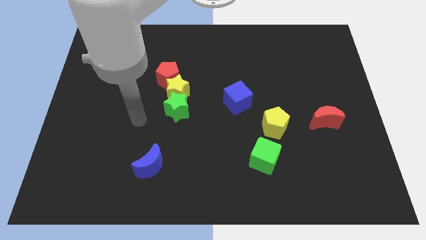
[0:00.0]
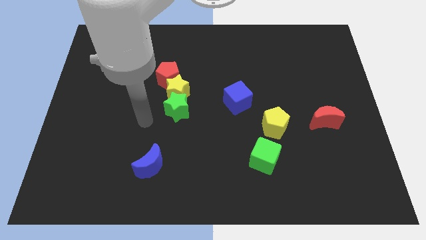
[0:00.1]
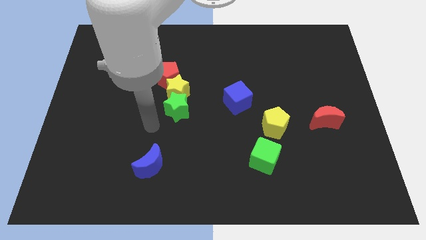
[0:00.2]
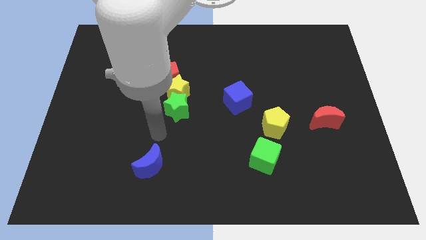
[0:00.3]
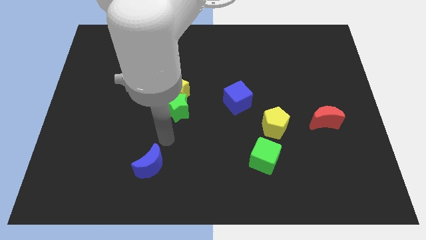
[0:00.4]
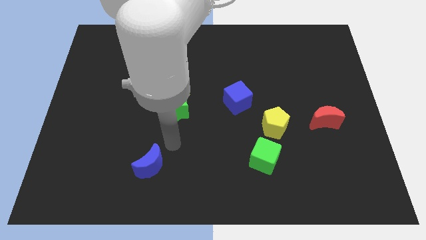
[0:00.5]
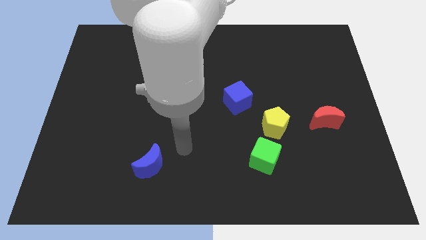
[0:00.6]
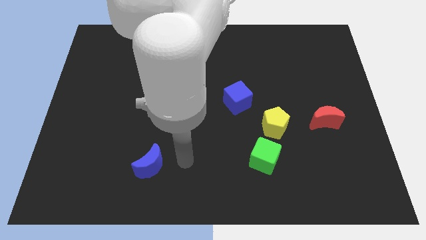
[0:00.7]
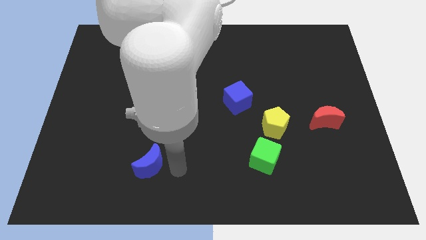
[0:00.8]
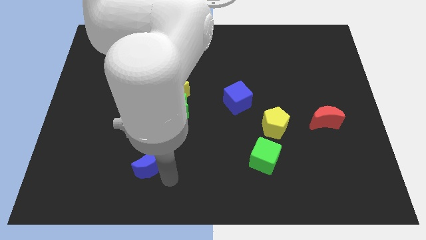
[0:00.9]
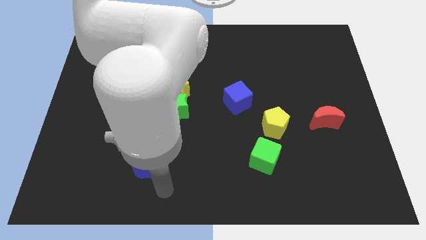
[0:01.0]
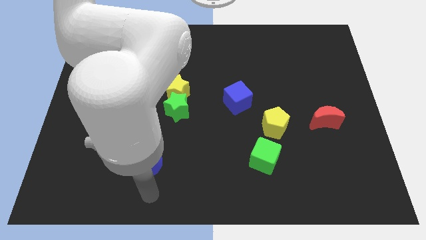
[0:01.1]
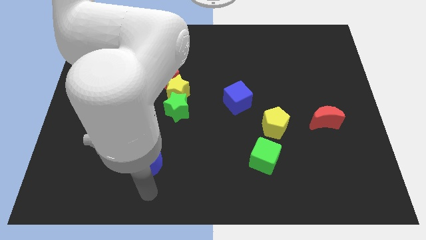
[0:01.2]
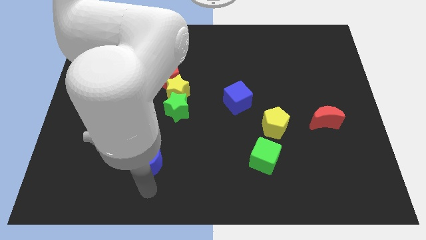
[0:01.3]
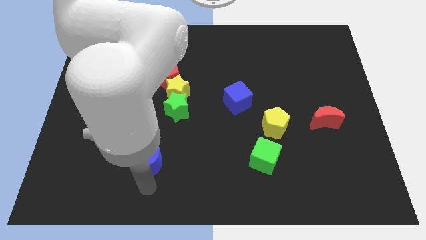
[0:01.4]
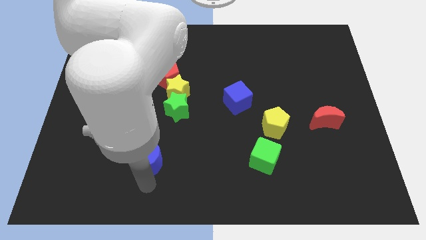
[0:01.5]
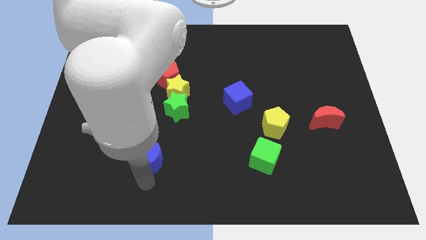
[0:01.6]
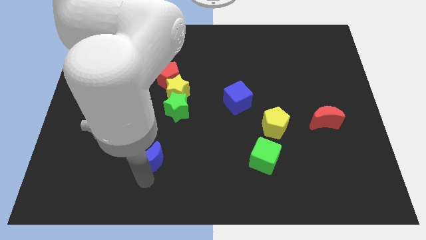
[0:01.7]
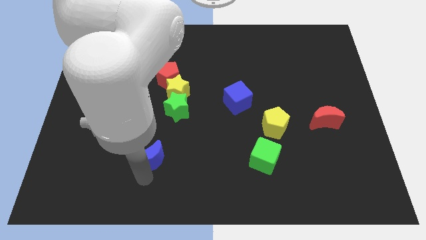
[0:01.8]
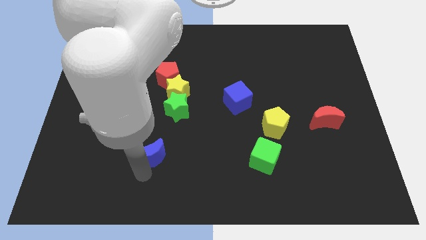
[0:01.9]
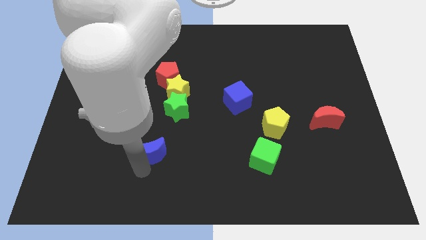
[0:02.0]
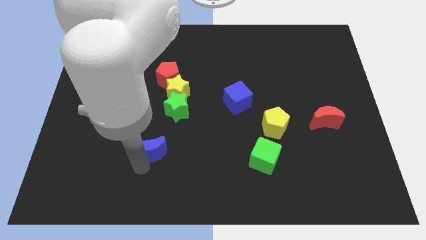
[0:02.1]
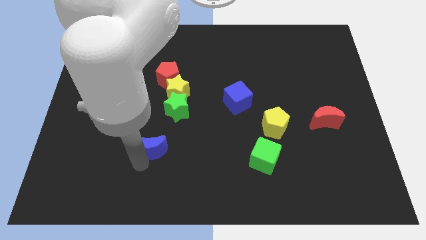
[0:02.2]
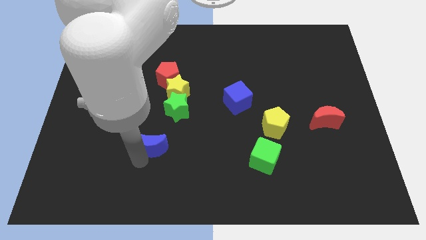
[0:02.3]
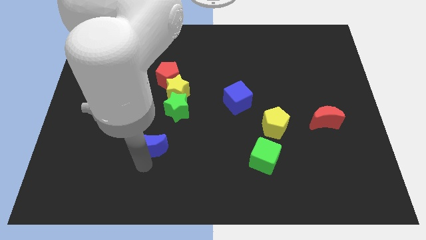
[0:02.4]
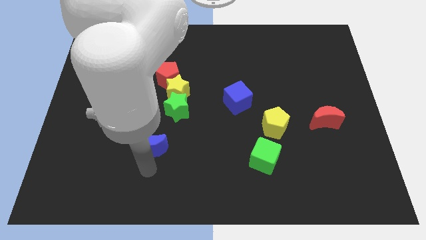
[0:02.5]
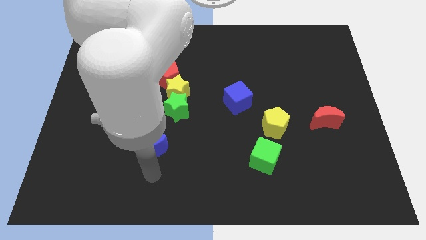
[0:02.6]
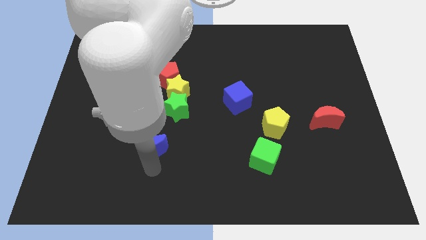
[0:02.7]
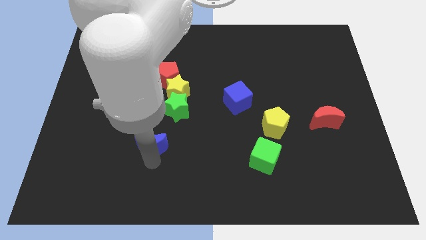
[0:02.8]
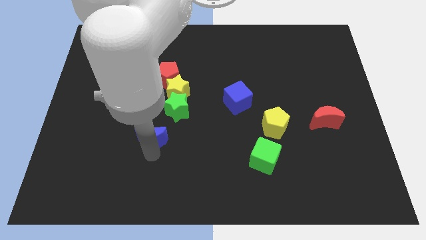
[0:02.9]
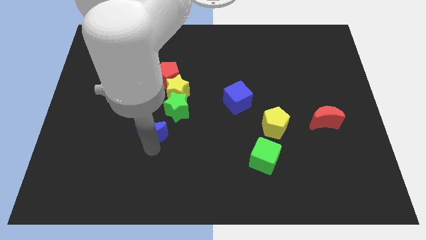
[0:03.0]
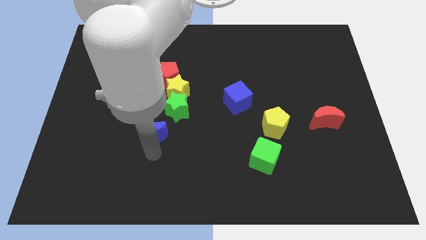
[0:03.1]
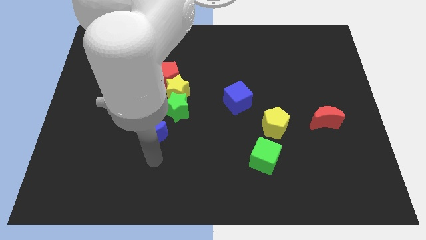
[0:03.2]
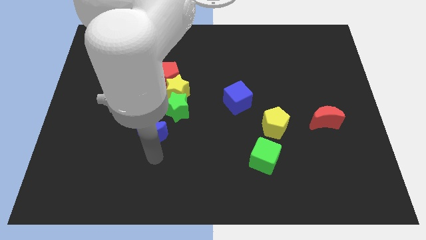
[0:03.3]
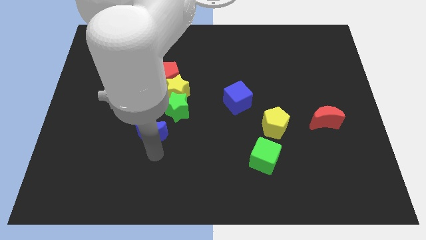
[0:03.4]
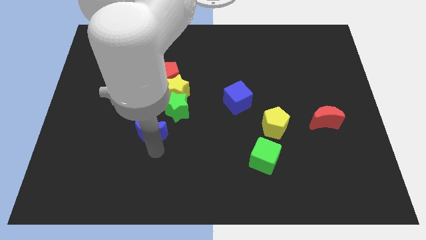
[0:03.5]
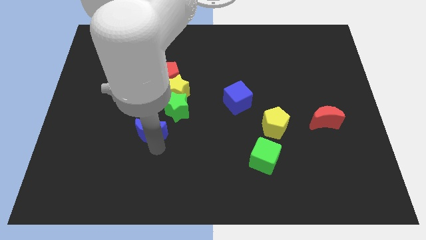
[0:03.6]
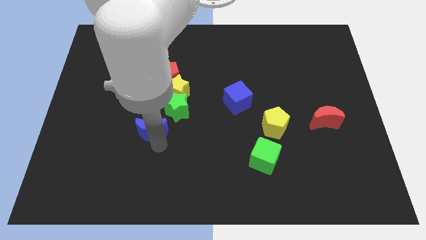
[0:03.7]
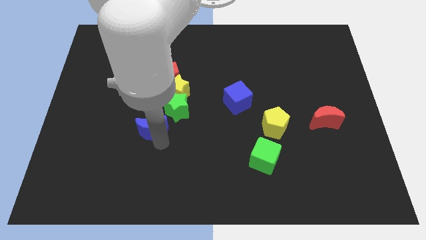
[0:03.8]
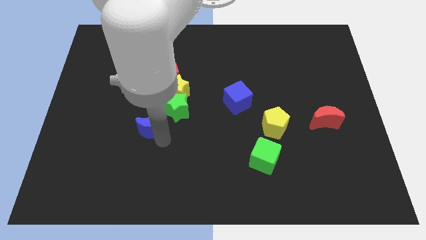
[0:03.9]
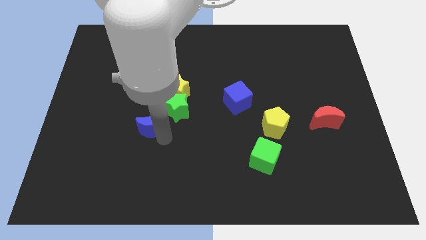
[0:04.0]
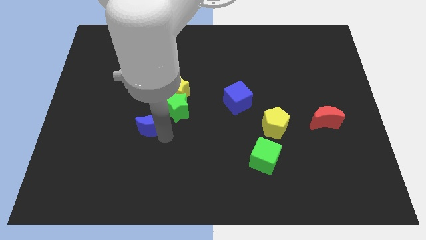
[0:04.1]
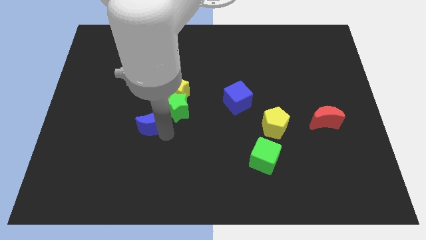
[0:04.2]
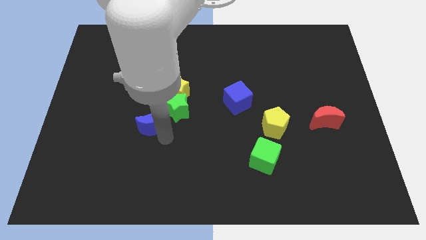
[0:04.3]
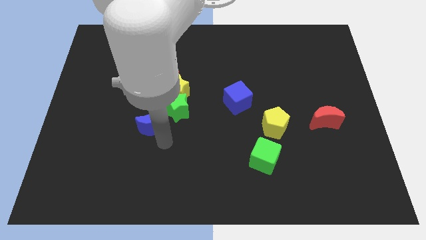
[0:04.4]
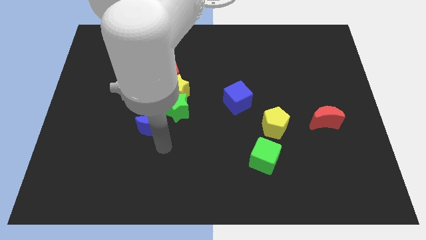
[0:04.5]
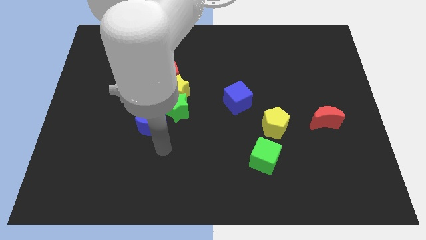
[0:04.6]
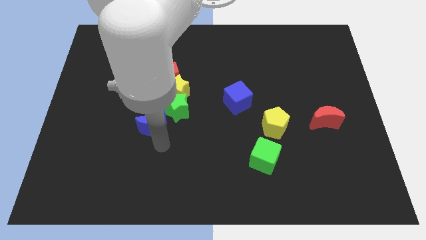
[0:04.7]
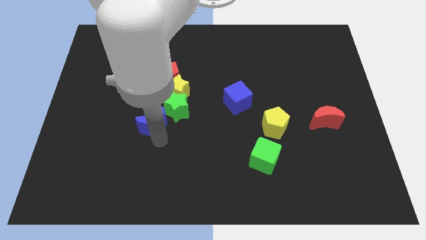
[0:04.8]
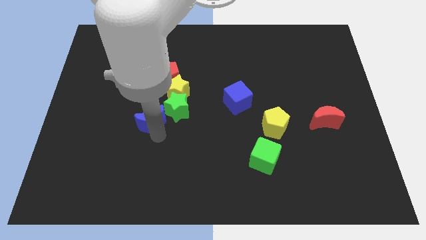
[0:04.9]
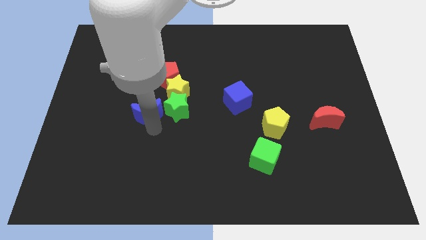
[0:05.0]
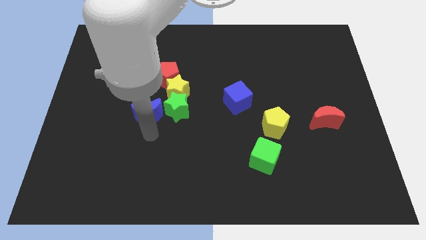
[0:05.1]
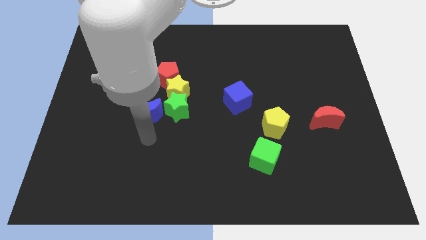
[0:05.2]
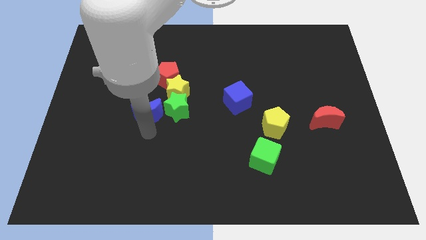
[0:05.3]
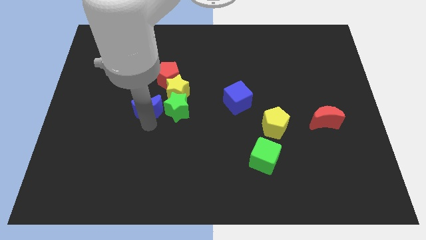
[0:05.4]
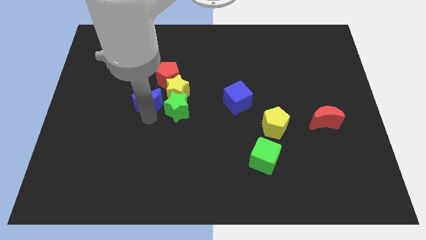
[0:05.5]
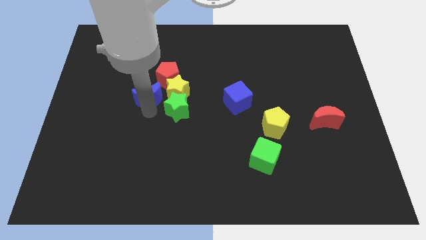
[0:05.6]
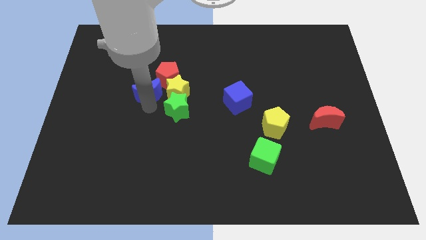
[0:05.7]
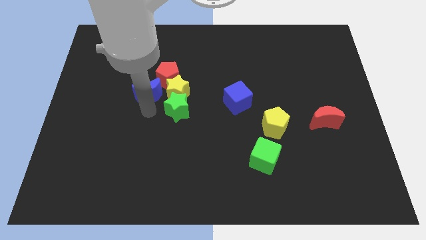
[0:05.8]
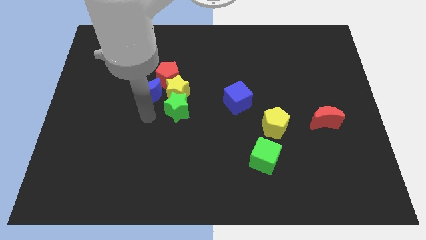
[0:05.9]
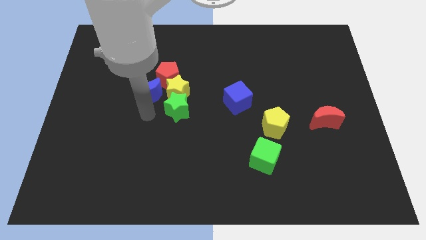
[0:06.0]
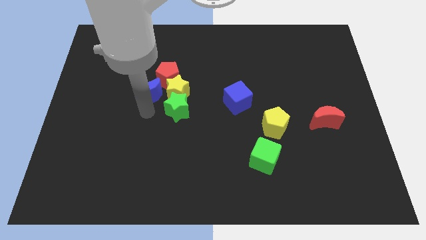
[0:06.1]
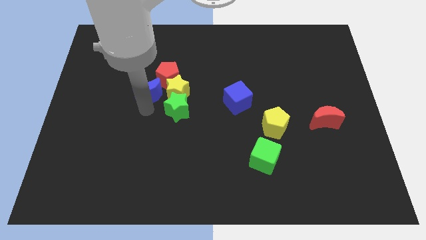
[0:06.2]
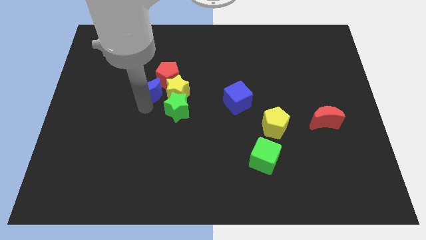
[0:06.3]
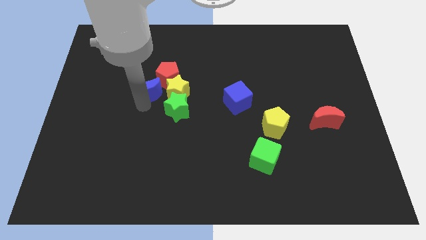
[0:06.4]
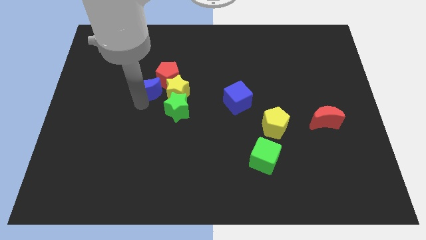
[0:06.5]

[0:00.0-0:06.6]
move the blue moon up

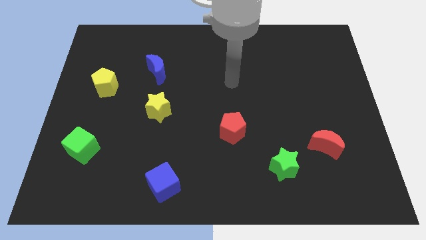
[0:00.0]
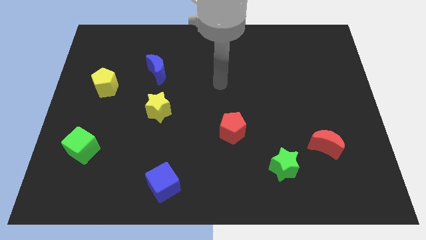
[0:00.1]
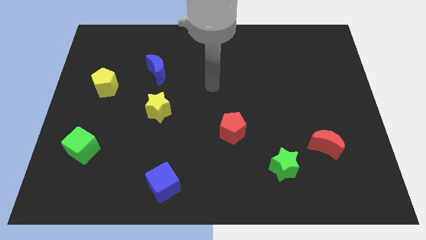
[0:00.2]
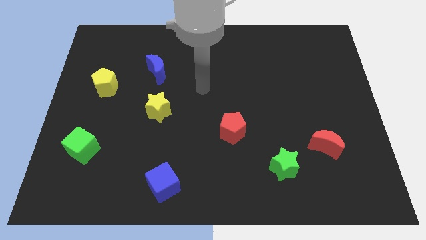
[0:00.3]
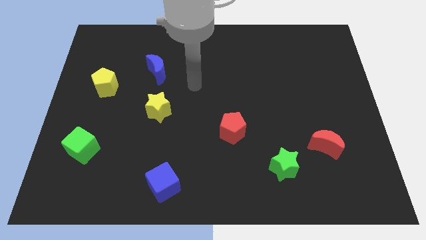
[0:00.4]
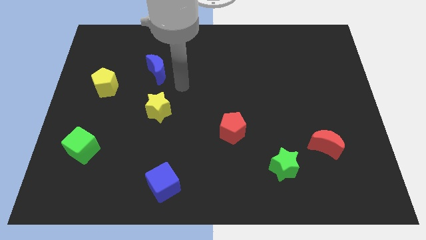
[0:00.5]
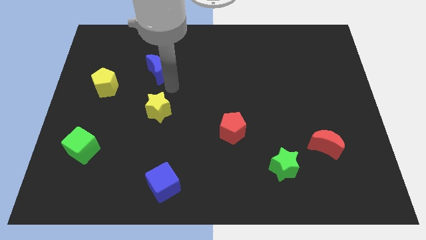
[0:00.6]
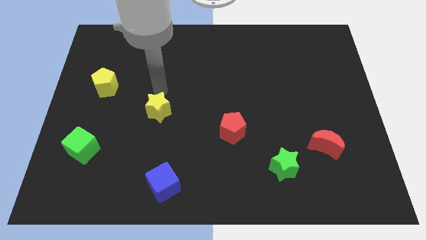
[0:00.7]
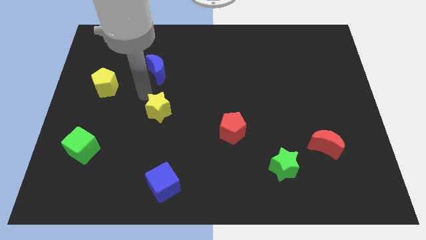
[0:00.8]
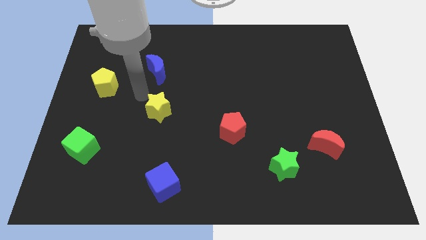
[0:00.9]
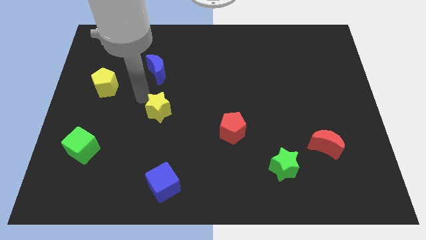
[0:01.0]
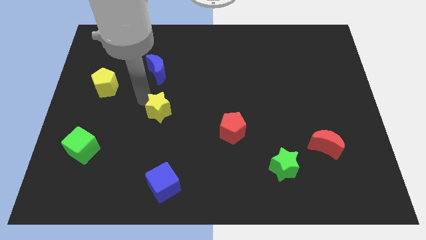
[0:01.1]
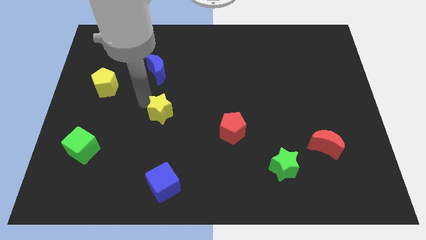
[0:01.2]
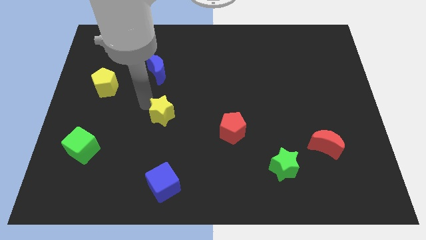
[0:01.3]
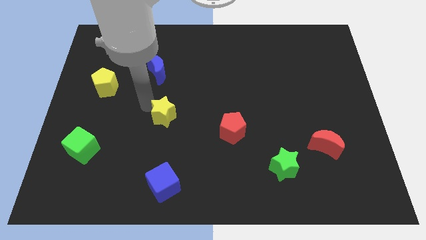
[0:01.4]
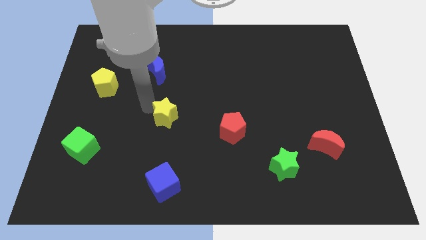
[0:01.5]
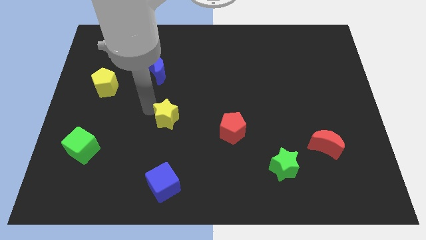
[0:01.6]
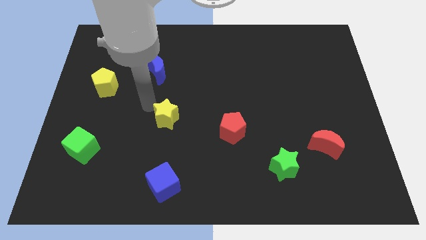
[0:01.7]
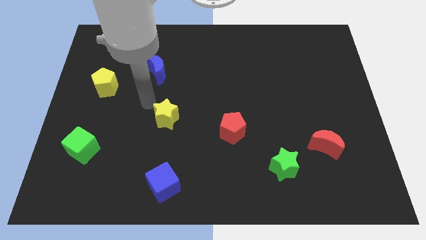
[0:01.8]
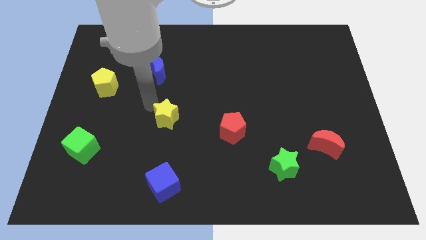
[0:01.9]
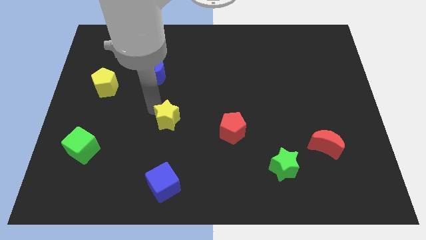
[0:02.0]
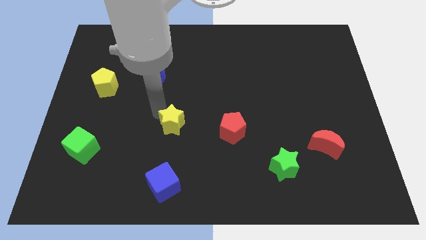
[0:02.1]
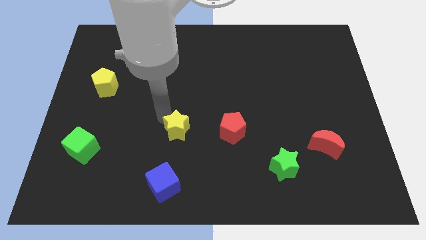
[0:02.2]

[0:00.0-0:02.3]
push the yellow star down and right diagonally a little
